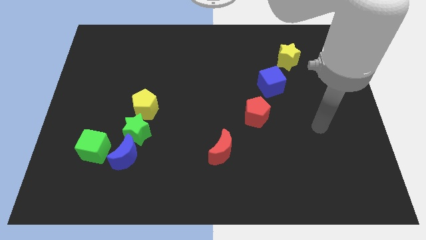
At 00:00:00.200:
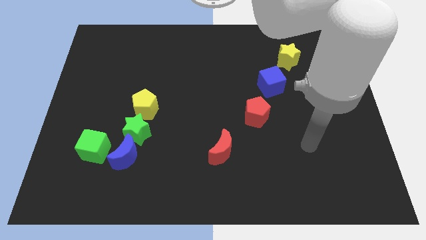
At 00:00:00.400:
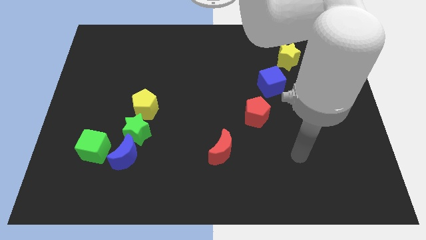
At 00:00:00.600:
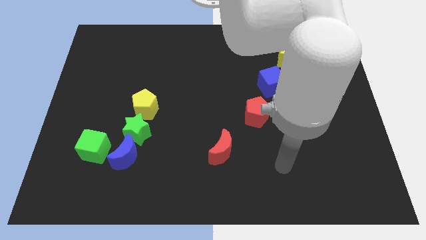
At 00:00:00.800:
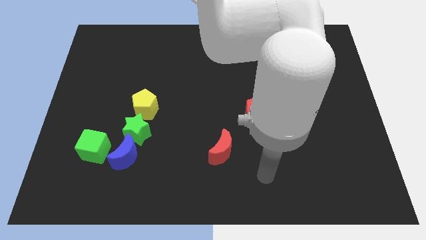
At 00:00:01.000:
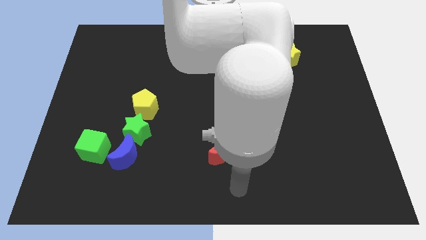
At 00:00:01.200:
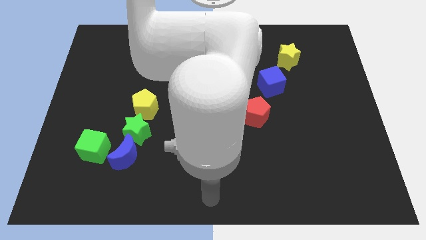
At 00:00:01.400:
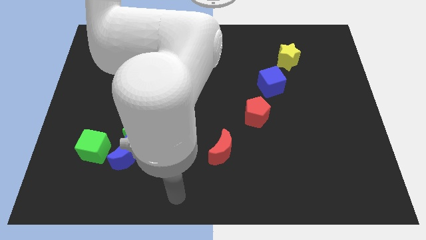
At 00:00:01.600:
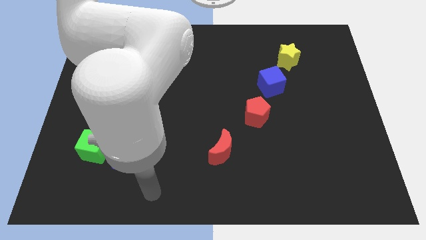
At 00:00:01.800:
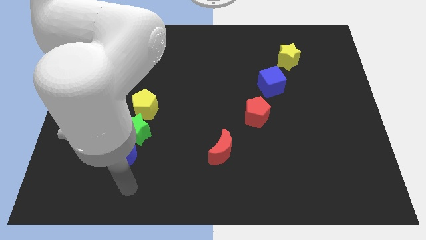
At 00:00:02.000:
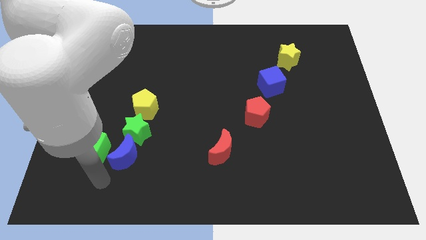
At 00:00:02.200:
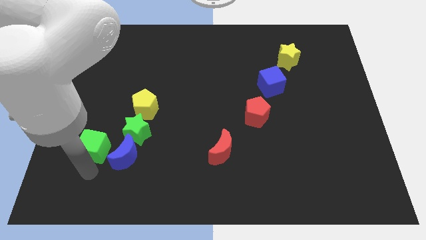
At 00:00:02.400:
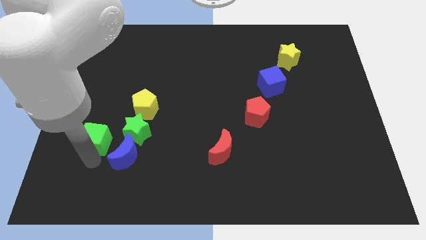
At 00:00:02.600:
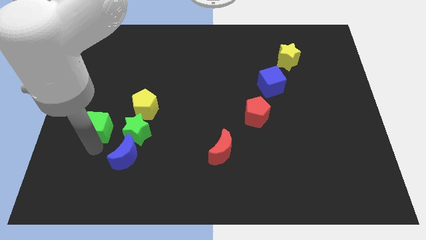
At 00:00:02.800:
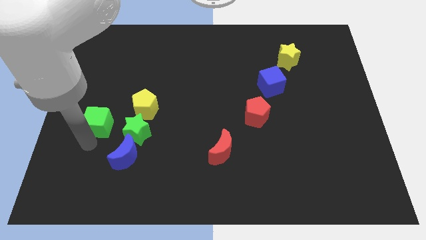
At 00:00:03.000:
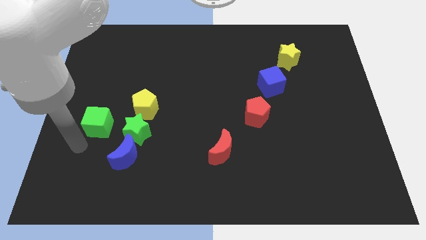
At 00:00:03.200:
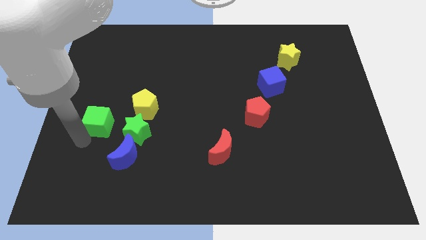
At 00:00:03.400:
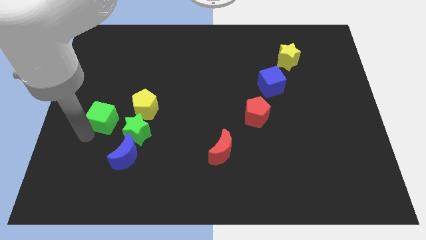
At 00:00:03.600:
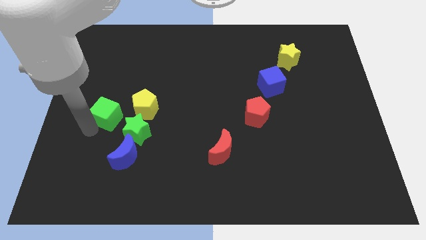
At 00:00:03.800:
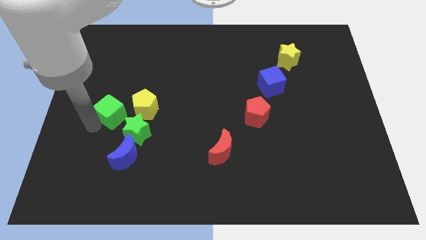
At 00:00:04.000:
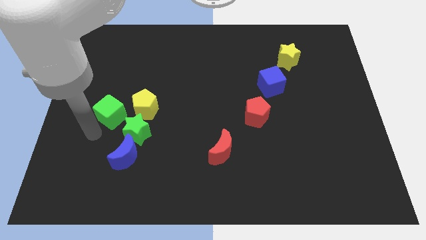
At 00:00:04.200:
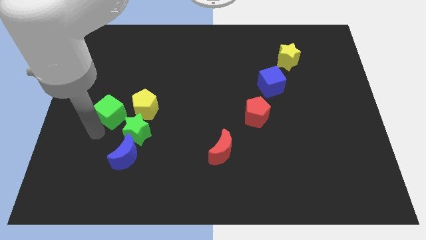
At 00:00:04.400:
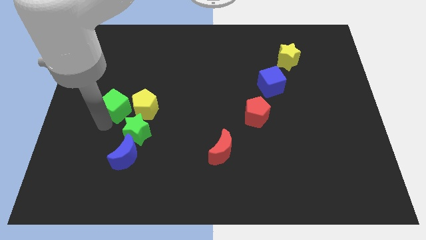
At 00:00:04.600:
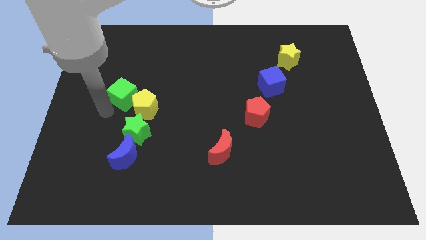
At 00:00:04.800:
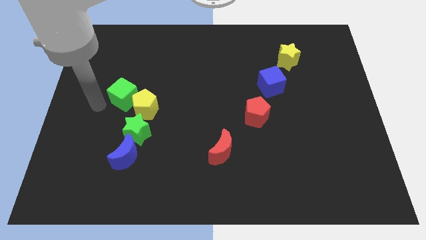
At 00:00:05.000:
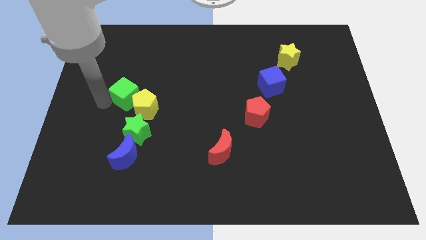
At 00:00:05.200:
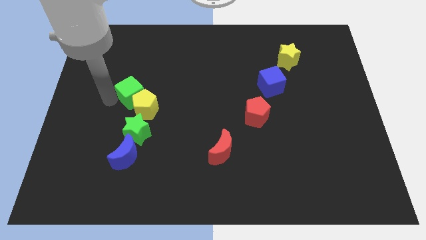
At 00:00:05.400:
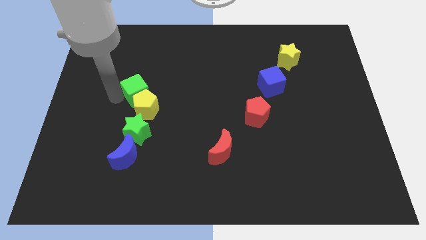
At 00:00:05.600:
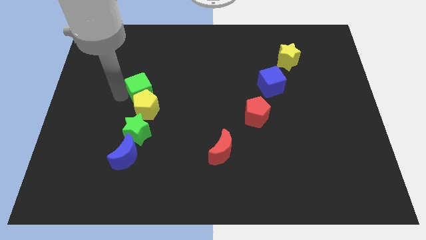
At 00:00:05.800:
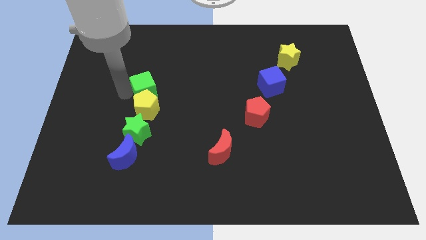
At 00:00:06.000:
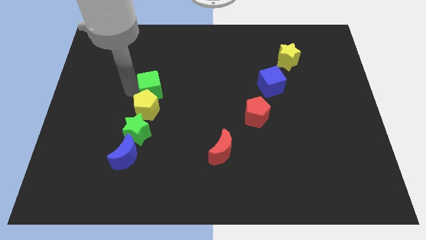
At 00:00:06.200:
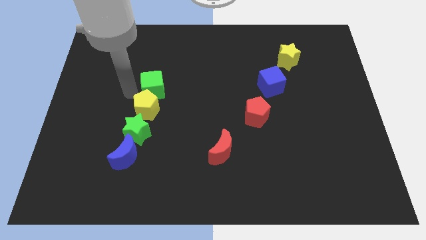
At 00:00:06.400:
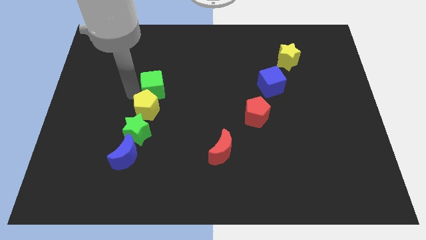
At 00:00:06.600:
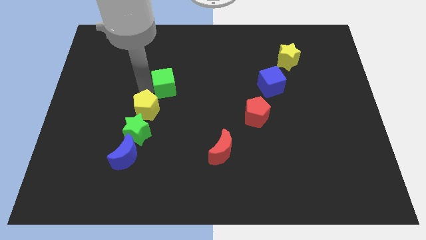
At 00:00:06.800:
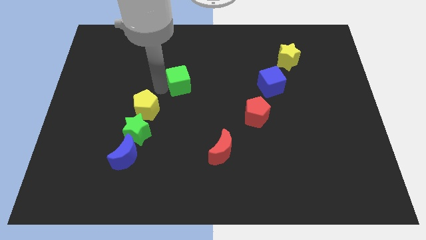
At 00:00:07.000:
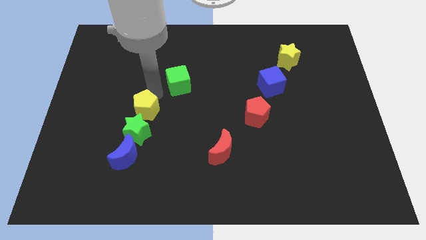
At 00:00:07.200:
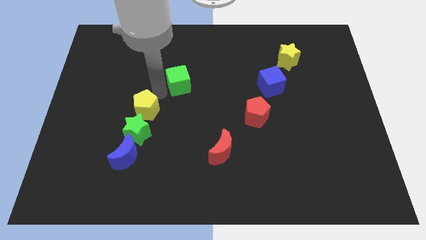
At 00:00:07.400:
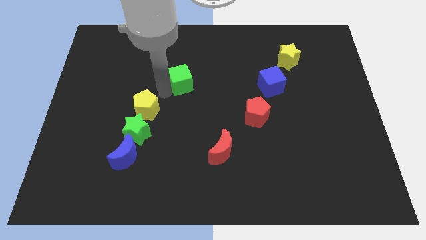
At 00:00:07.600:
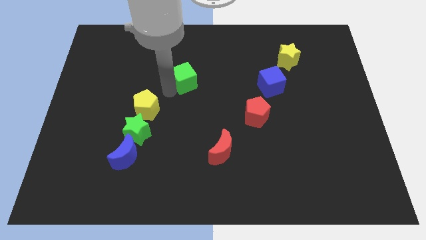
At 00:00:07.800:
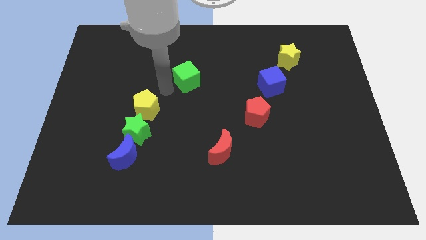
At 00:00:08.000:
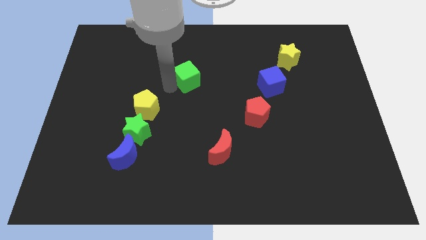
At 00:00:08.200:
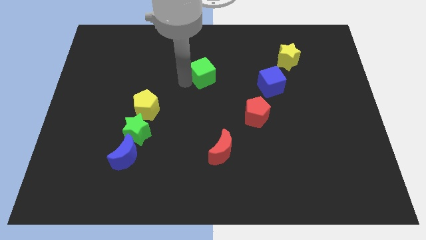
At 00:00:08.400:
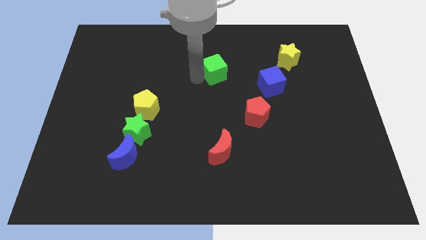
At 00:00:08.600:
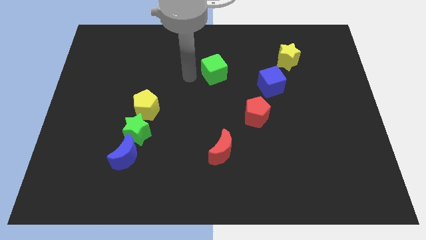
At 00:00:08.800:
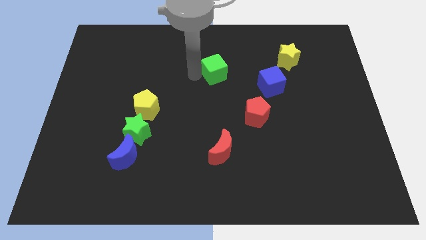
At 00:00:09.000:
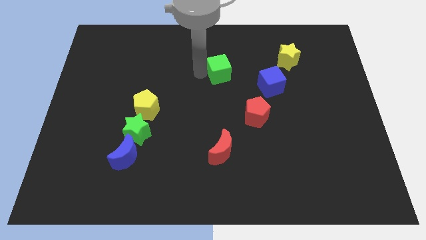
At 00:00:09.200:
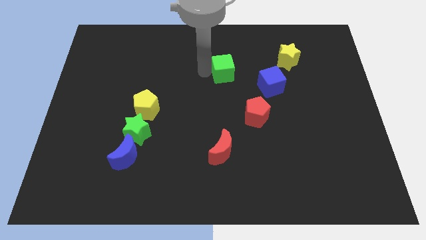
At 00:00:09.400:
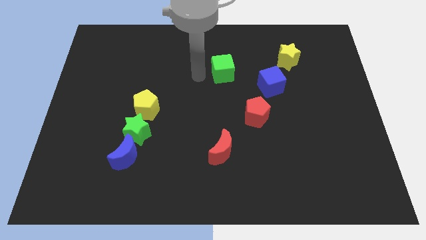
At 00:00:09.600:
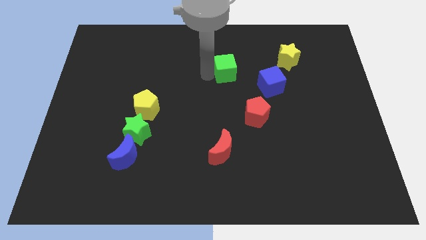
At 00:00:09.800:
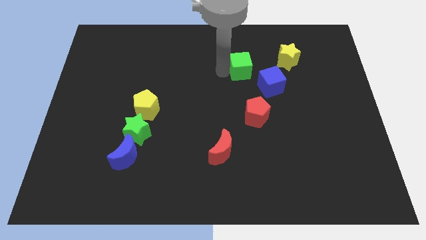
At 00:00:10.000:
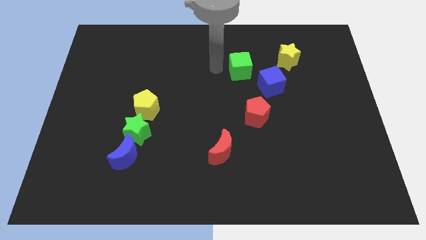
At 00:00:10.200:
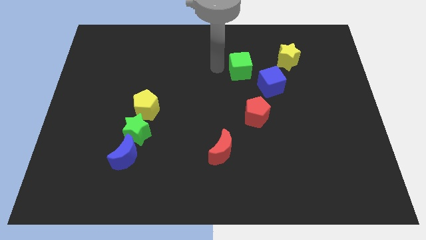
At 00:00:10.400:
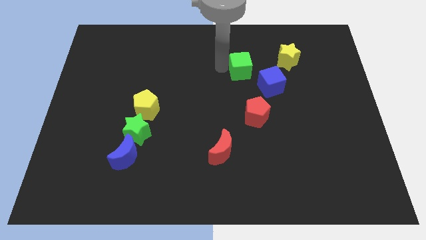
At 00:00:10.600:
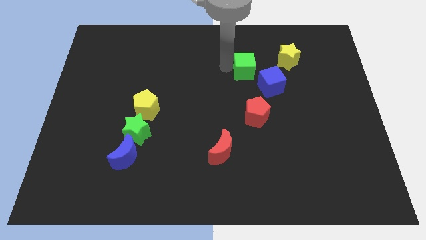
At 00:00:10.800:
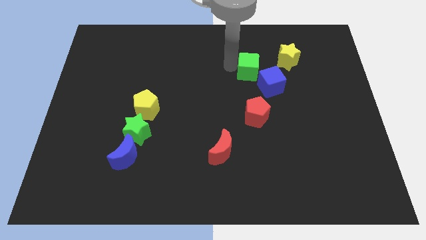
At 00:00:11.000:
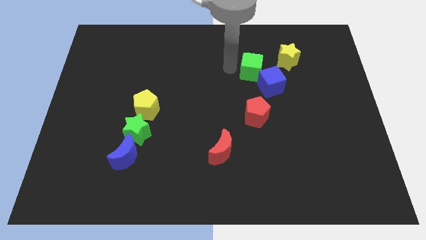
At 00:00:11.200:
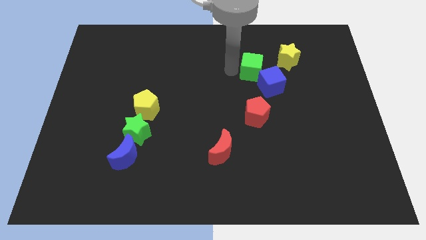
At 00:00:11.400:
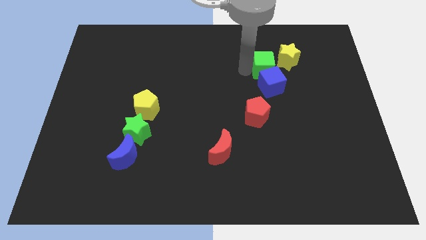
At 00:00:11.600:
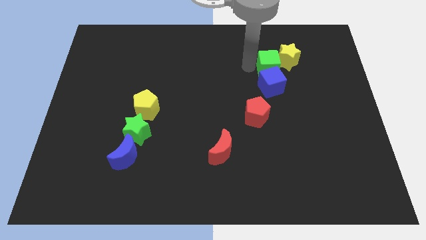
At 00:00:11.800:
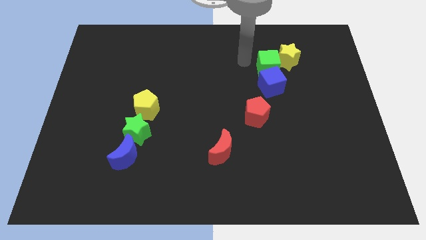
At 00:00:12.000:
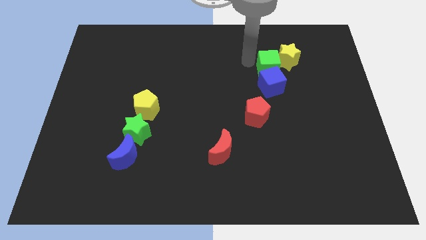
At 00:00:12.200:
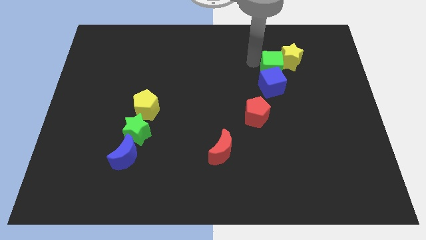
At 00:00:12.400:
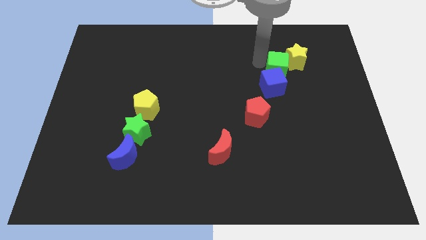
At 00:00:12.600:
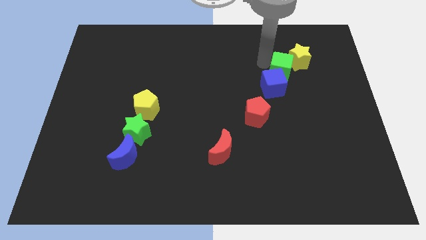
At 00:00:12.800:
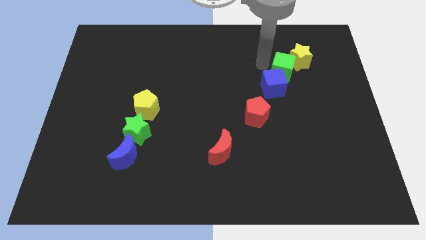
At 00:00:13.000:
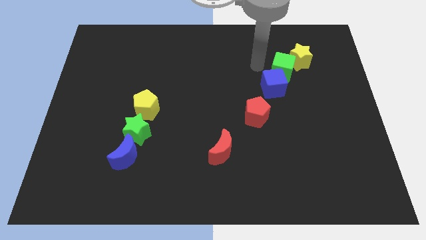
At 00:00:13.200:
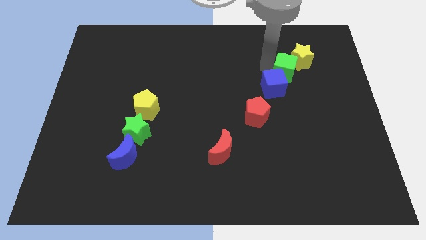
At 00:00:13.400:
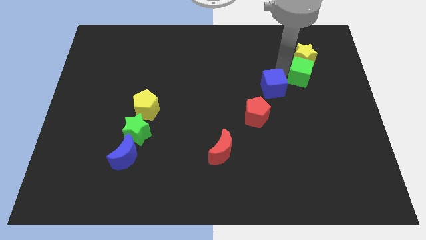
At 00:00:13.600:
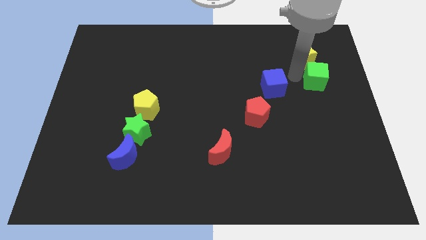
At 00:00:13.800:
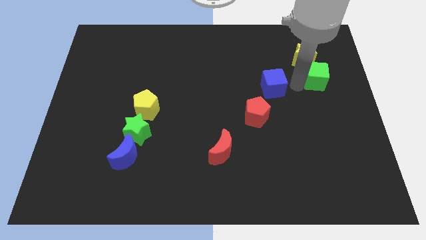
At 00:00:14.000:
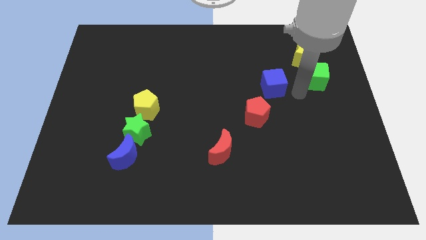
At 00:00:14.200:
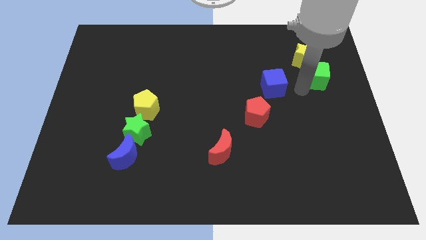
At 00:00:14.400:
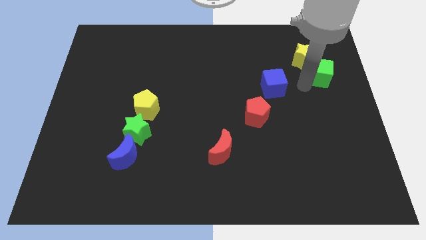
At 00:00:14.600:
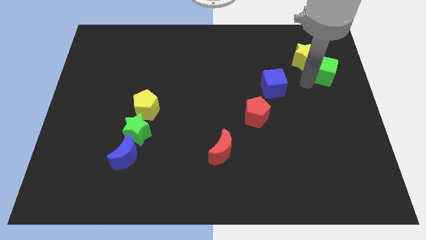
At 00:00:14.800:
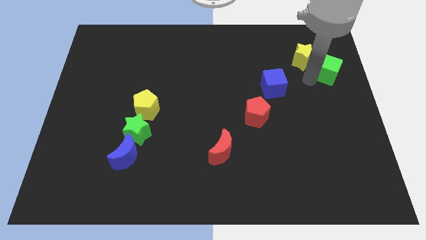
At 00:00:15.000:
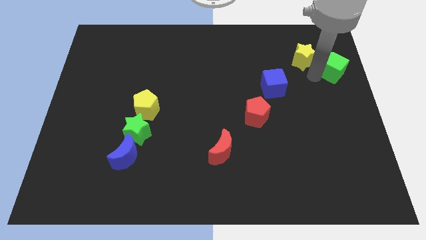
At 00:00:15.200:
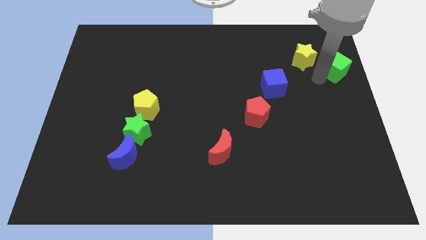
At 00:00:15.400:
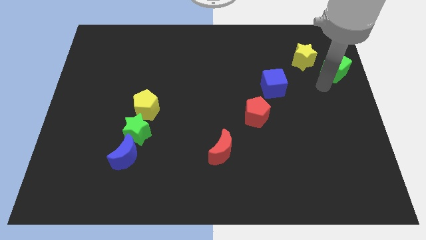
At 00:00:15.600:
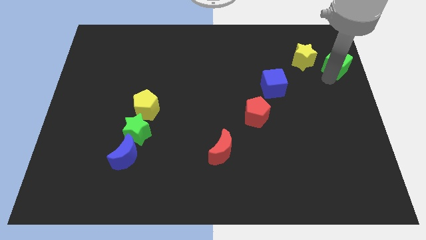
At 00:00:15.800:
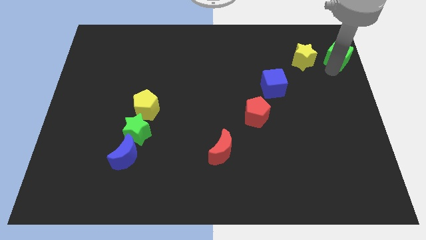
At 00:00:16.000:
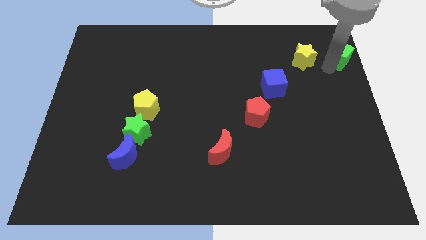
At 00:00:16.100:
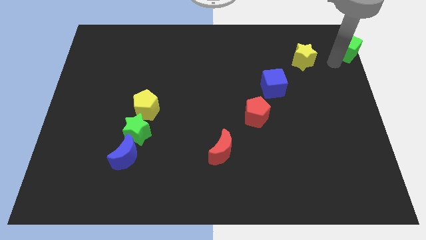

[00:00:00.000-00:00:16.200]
move the green cube to the upper right corner
